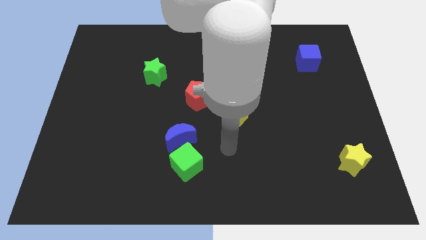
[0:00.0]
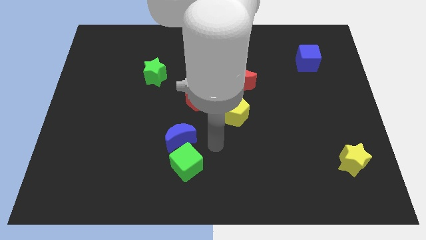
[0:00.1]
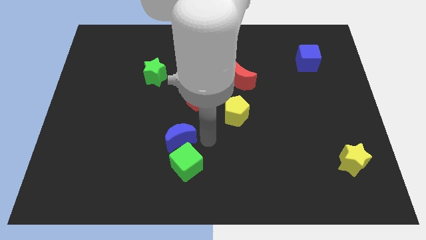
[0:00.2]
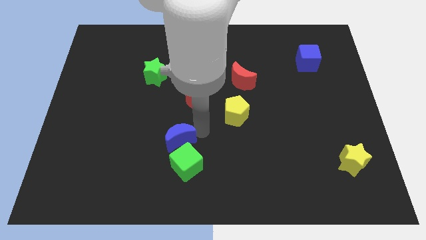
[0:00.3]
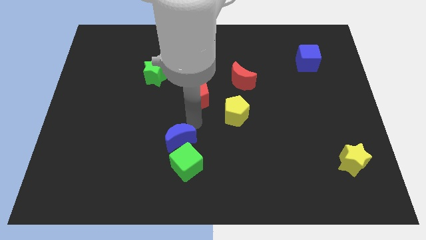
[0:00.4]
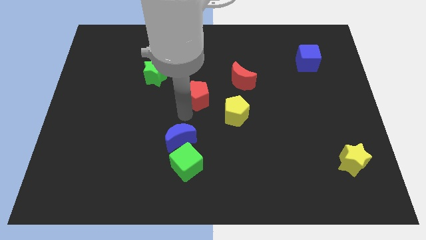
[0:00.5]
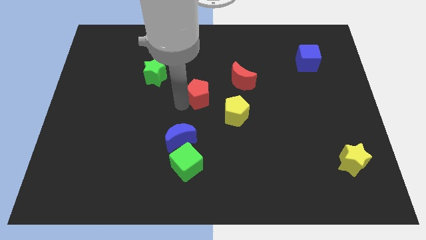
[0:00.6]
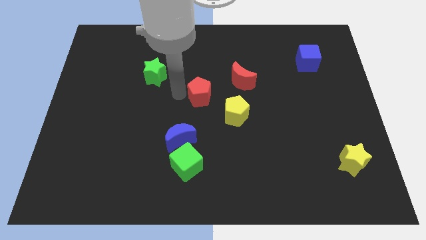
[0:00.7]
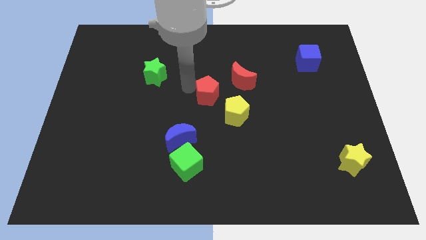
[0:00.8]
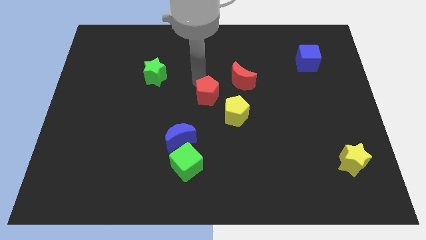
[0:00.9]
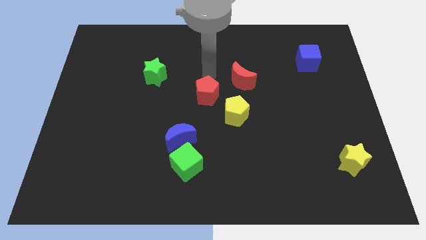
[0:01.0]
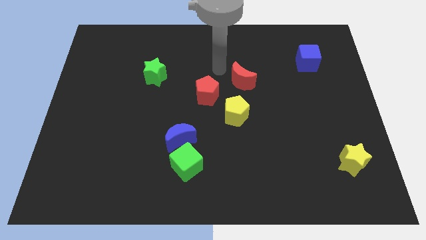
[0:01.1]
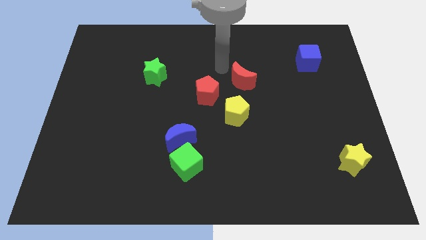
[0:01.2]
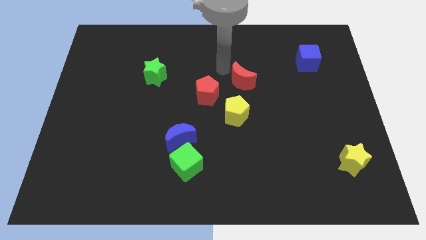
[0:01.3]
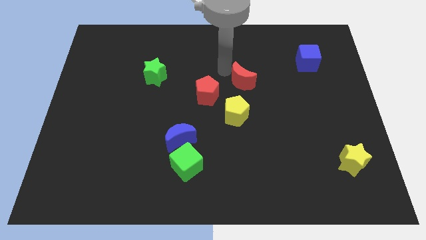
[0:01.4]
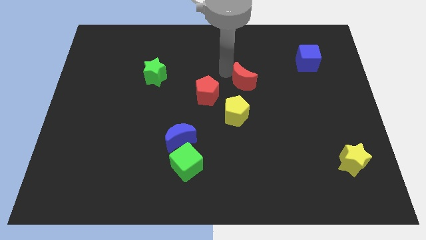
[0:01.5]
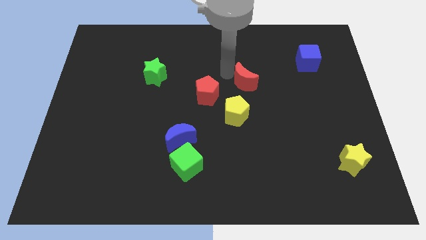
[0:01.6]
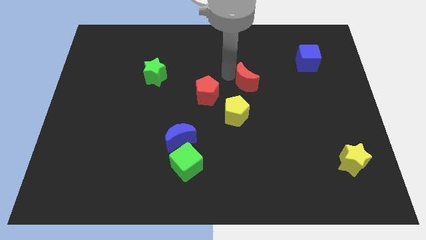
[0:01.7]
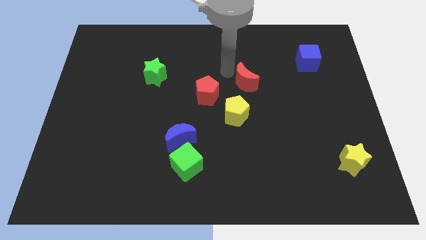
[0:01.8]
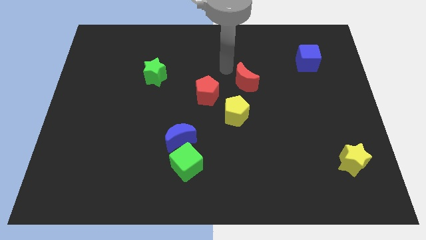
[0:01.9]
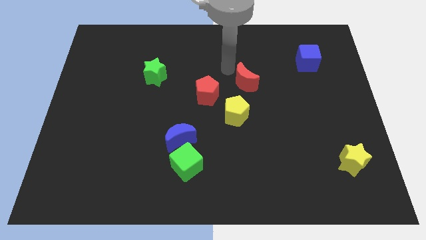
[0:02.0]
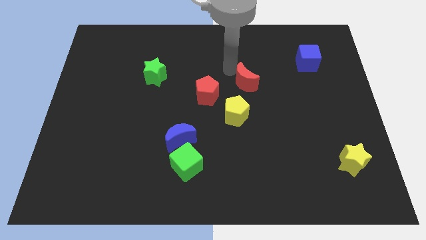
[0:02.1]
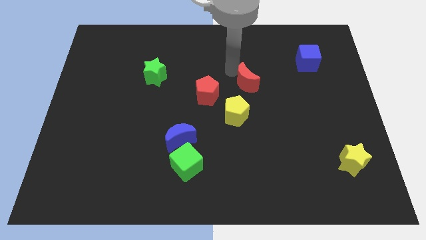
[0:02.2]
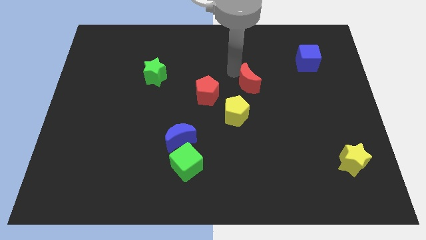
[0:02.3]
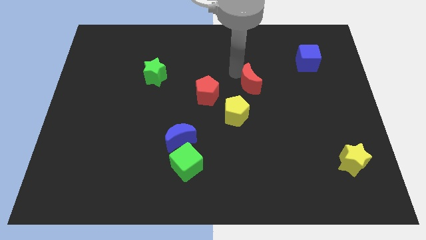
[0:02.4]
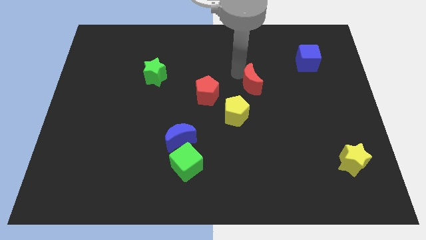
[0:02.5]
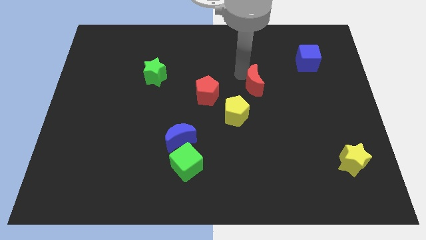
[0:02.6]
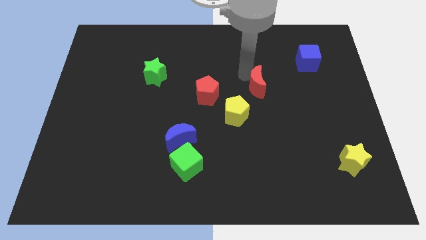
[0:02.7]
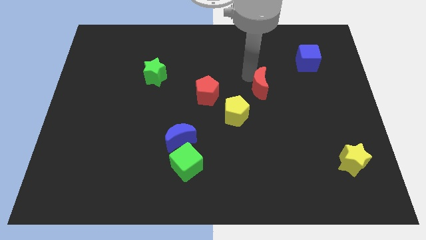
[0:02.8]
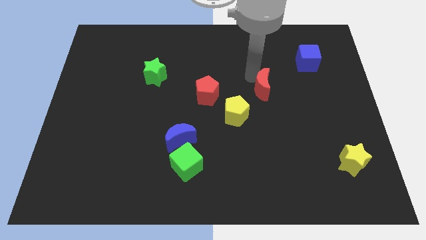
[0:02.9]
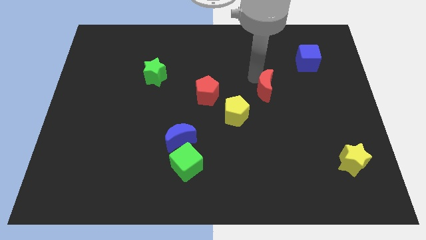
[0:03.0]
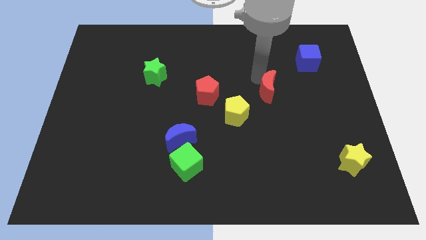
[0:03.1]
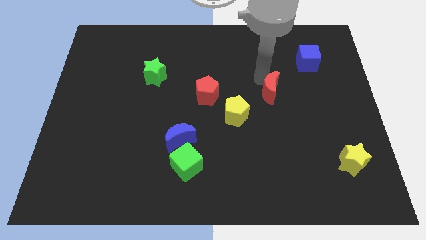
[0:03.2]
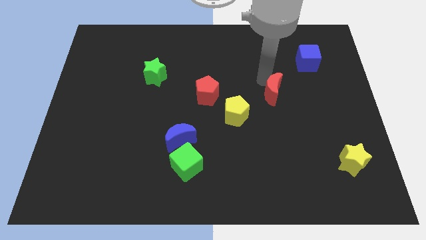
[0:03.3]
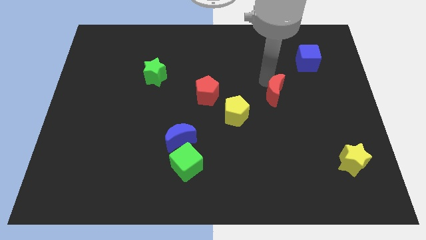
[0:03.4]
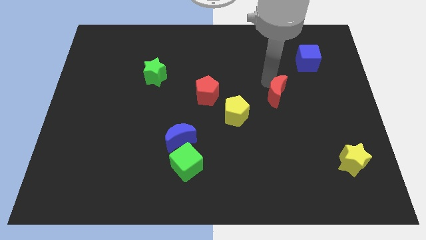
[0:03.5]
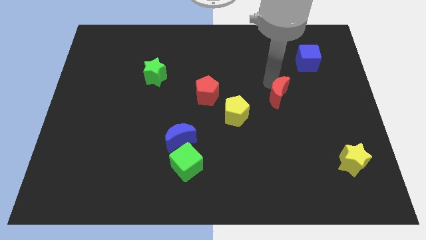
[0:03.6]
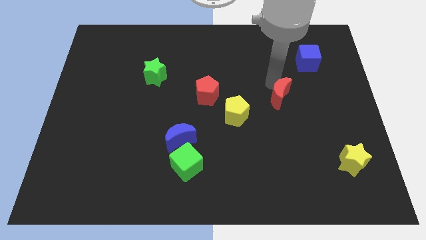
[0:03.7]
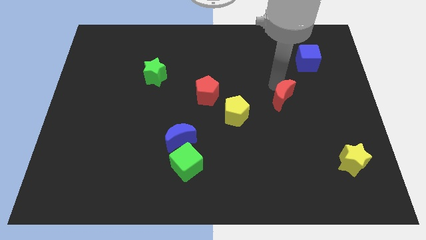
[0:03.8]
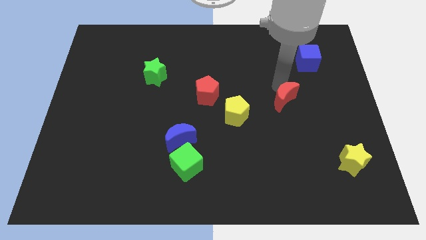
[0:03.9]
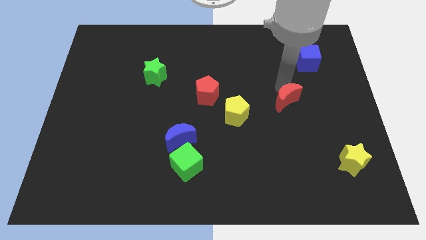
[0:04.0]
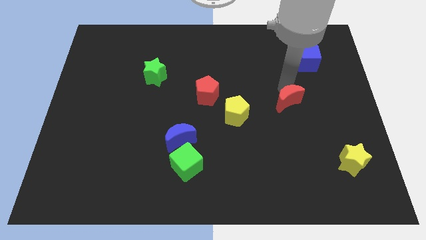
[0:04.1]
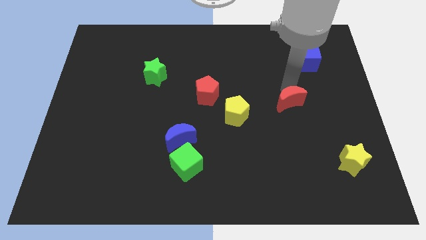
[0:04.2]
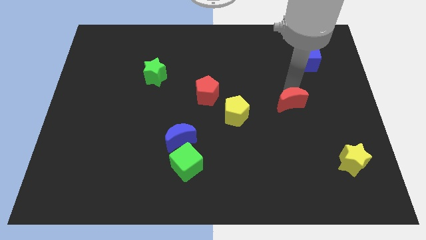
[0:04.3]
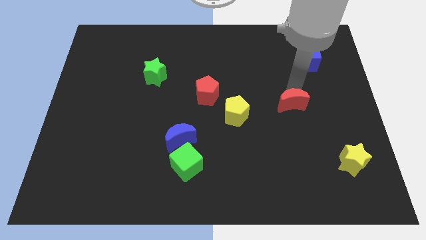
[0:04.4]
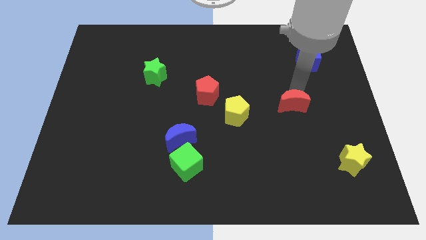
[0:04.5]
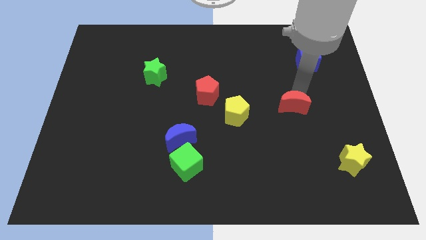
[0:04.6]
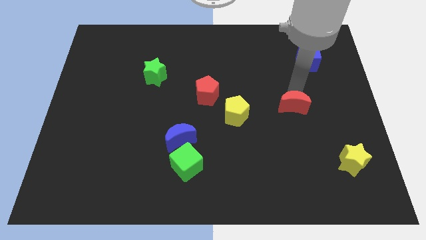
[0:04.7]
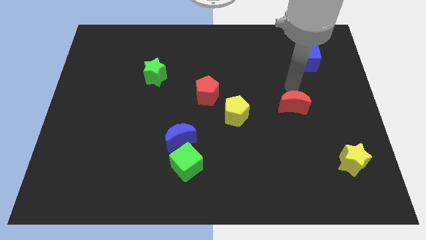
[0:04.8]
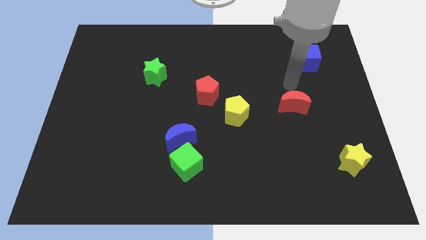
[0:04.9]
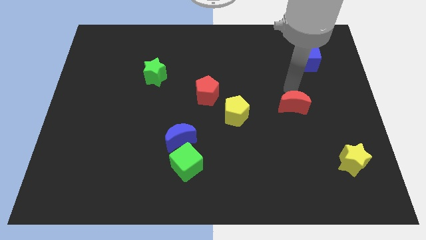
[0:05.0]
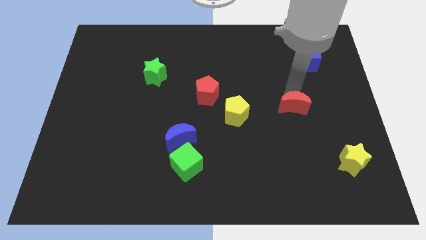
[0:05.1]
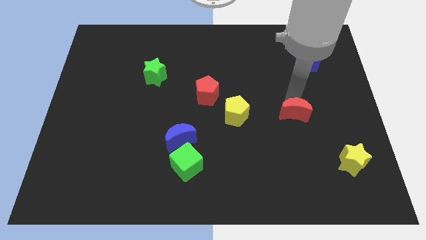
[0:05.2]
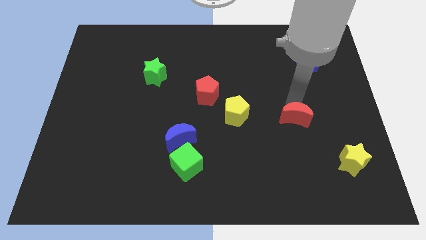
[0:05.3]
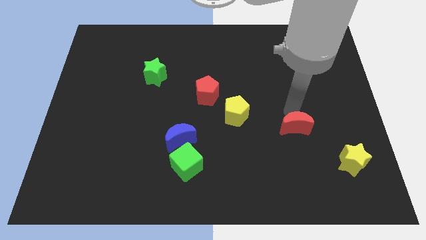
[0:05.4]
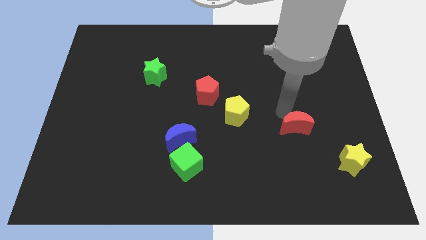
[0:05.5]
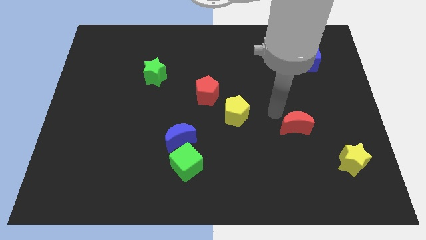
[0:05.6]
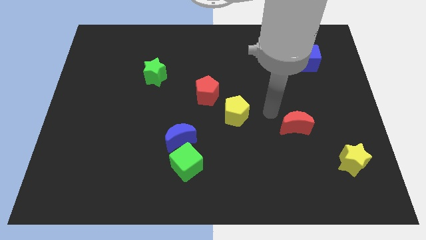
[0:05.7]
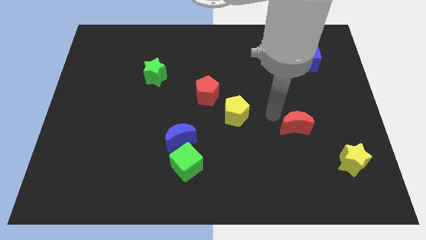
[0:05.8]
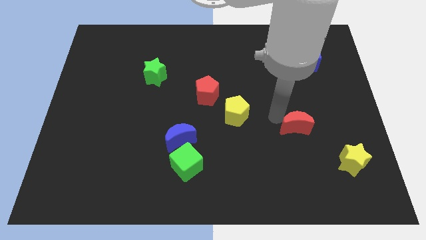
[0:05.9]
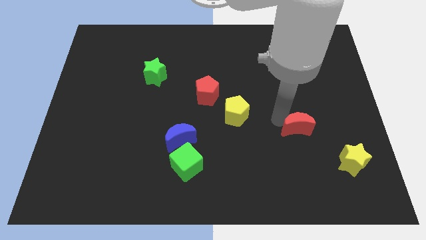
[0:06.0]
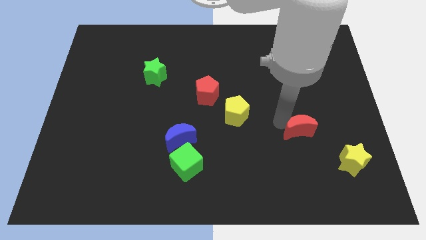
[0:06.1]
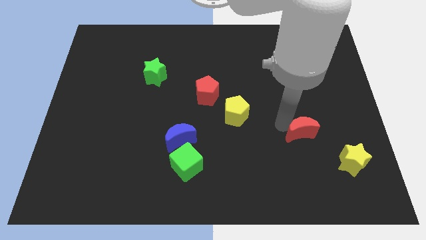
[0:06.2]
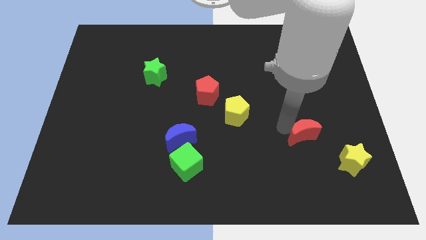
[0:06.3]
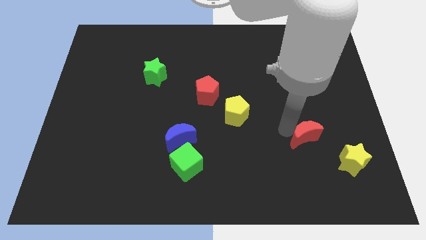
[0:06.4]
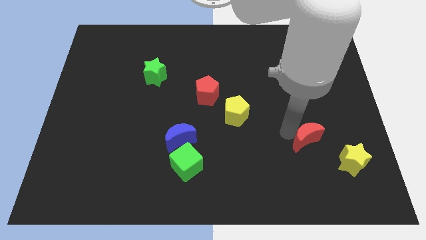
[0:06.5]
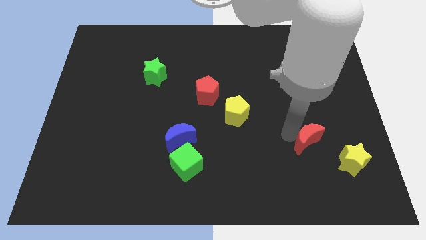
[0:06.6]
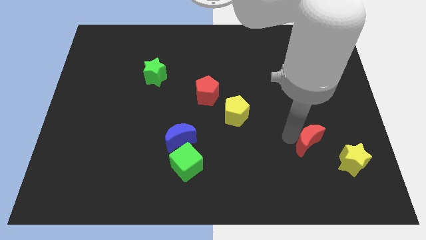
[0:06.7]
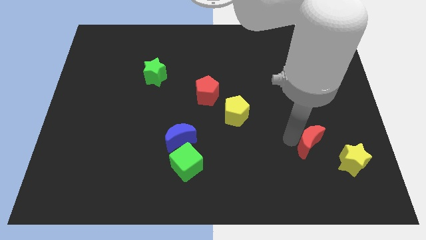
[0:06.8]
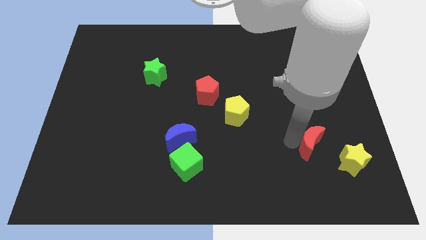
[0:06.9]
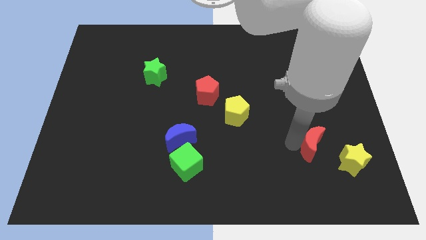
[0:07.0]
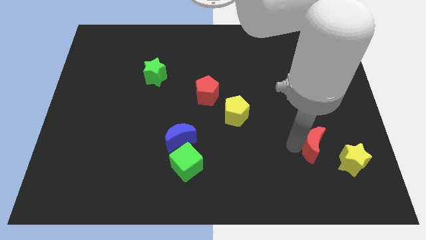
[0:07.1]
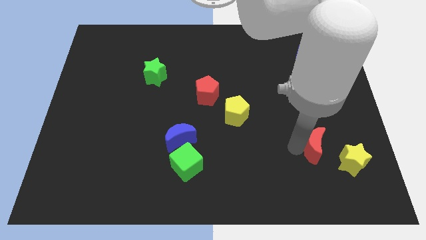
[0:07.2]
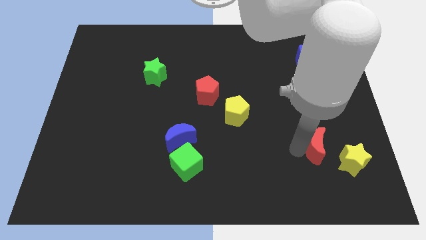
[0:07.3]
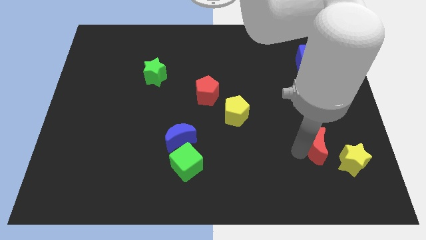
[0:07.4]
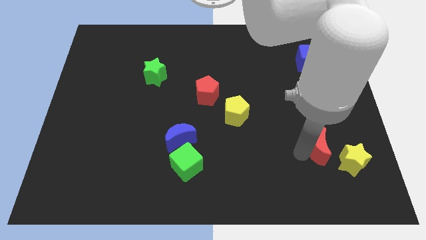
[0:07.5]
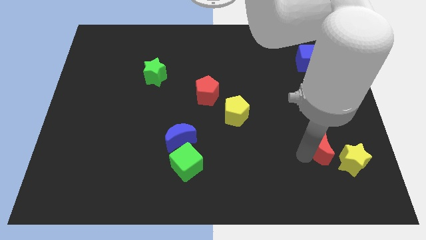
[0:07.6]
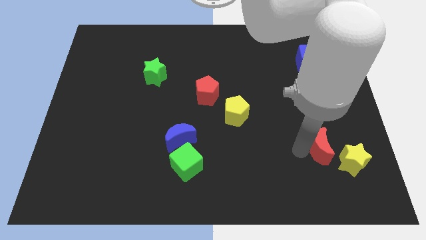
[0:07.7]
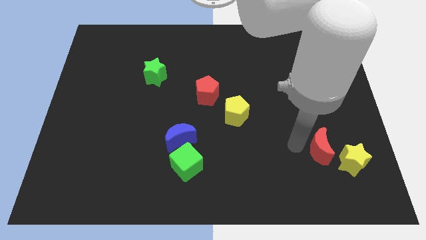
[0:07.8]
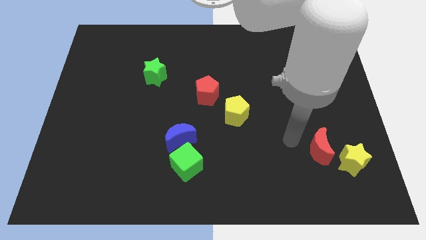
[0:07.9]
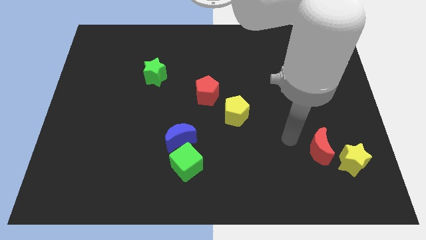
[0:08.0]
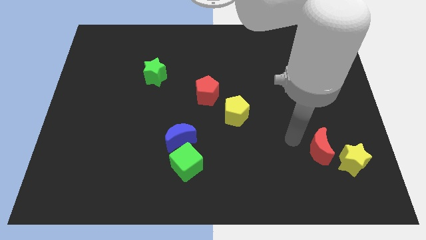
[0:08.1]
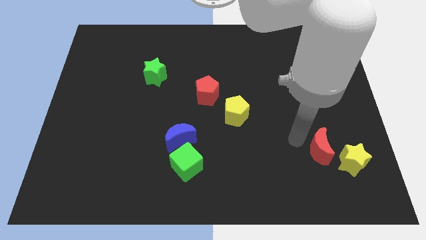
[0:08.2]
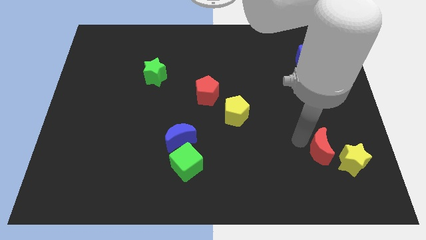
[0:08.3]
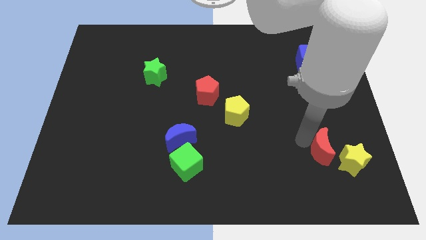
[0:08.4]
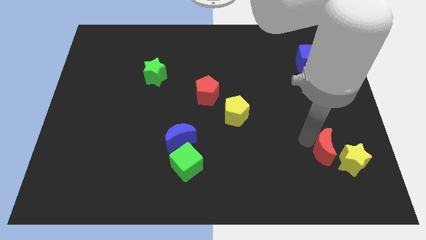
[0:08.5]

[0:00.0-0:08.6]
move the red moon next to the yellow star
